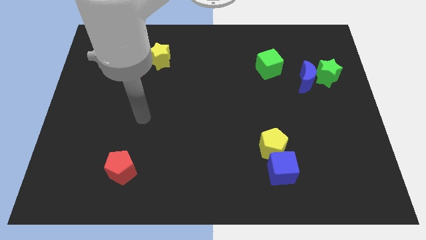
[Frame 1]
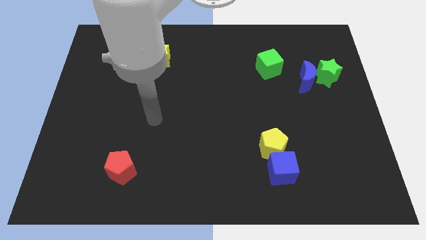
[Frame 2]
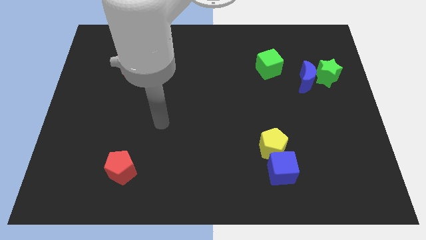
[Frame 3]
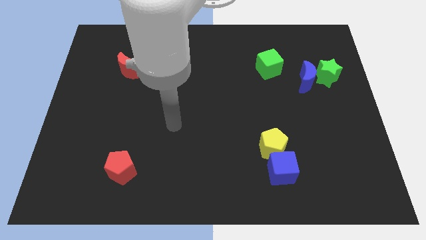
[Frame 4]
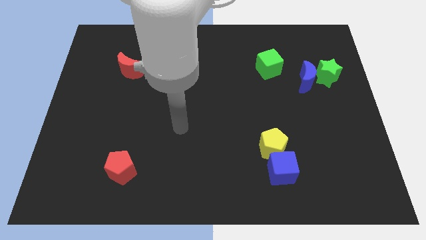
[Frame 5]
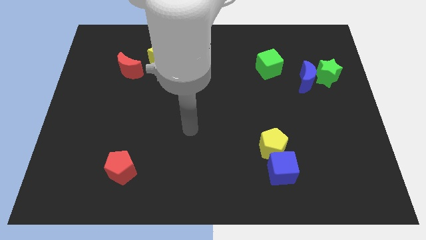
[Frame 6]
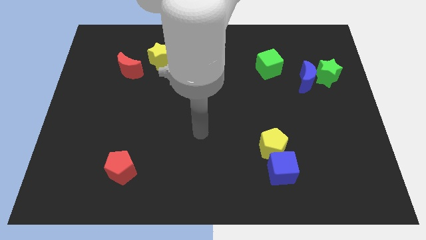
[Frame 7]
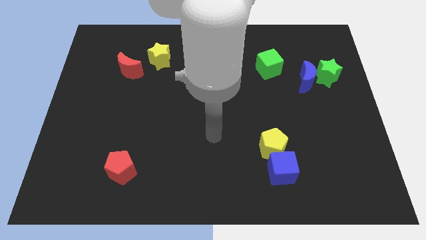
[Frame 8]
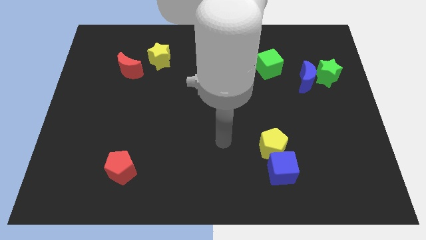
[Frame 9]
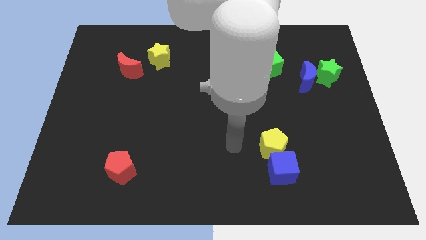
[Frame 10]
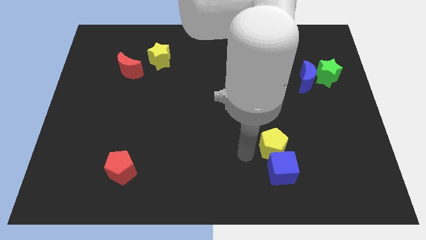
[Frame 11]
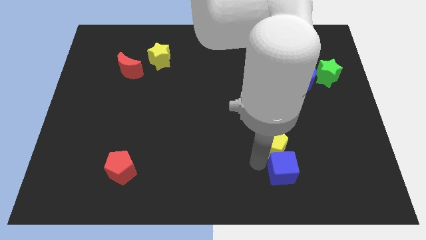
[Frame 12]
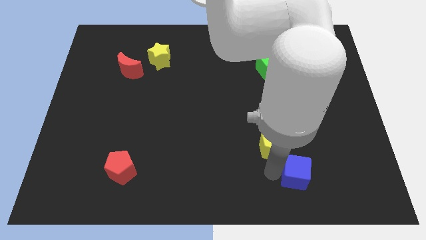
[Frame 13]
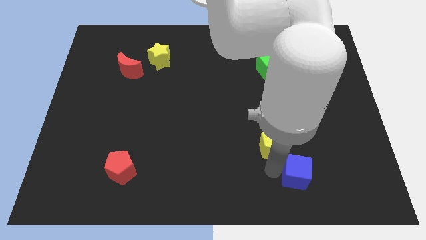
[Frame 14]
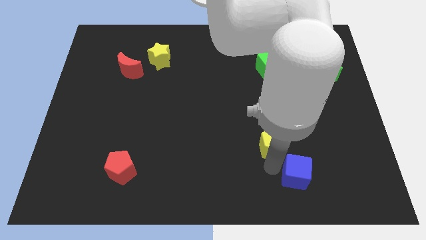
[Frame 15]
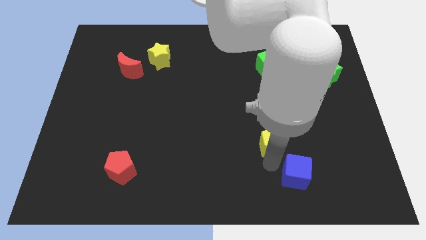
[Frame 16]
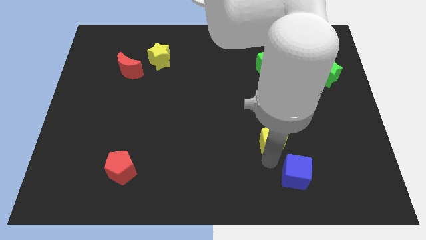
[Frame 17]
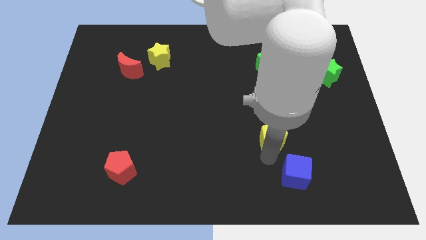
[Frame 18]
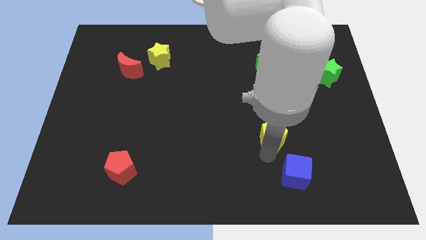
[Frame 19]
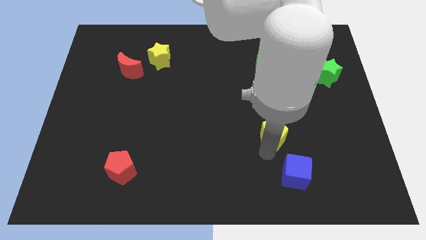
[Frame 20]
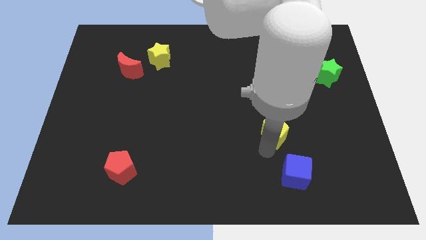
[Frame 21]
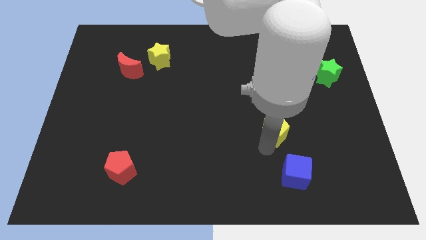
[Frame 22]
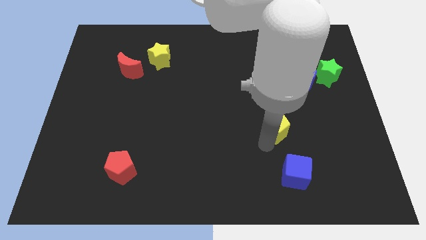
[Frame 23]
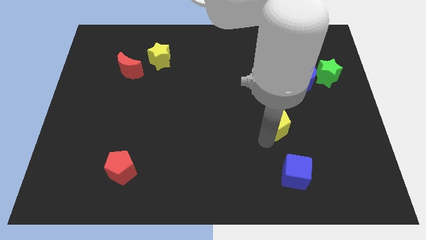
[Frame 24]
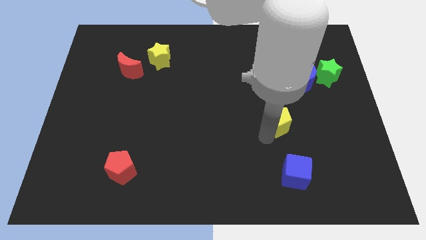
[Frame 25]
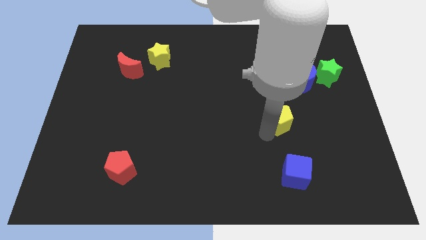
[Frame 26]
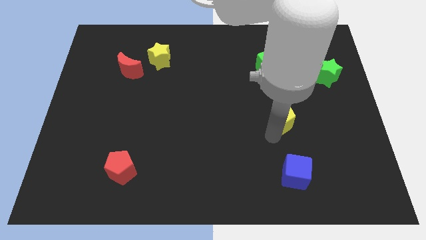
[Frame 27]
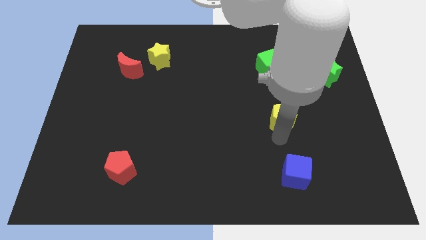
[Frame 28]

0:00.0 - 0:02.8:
slightly move the yellow pentagon upwards

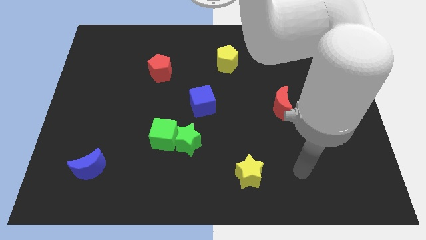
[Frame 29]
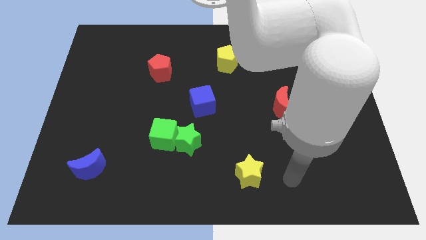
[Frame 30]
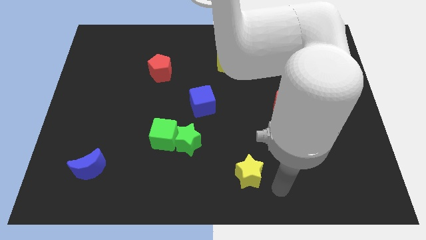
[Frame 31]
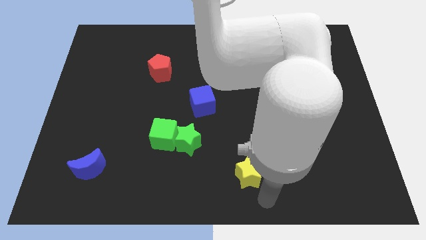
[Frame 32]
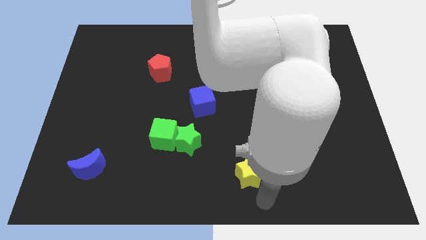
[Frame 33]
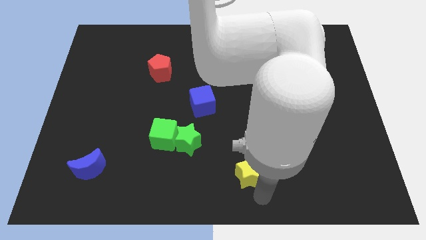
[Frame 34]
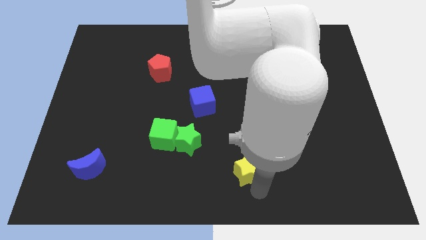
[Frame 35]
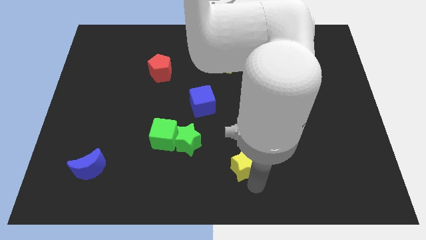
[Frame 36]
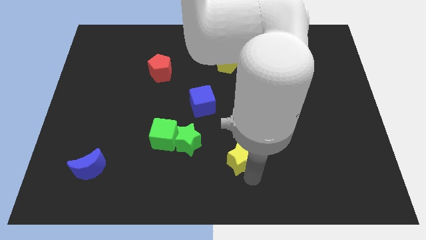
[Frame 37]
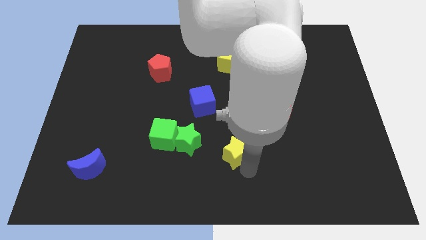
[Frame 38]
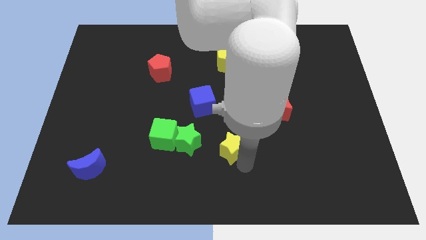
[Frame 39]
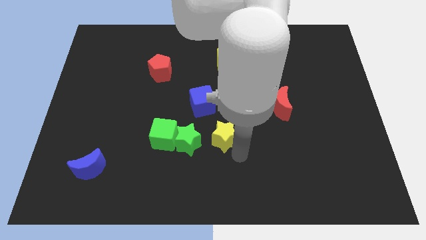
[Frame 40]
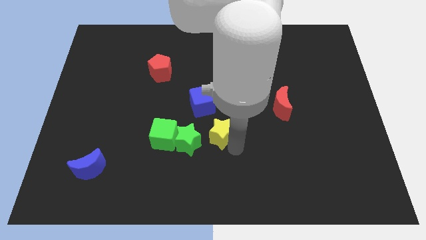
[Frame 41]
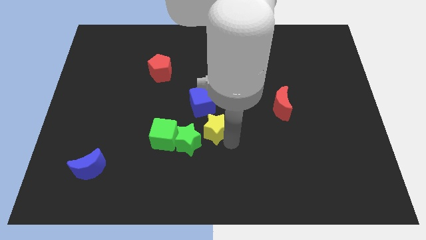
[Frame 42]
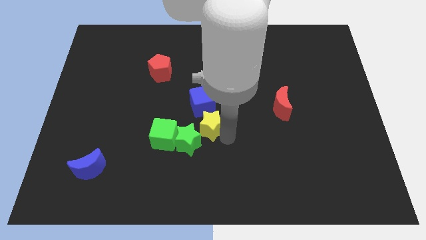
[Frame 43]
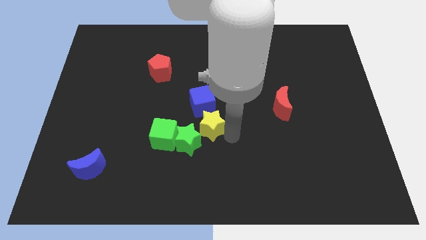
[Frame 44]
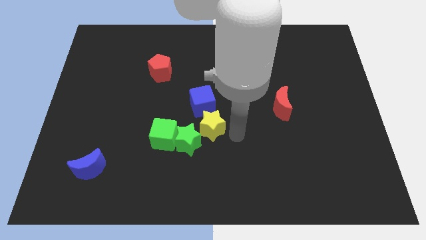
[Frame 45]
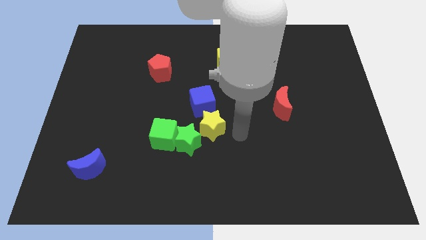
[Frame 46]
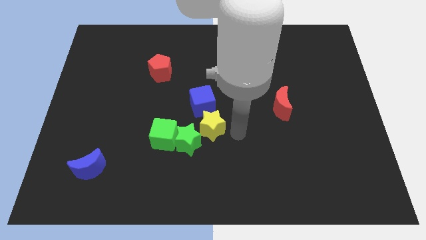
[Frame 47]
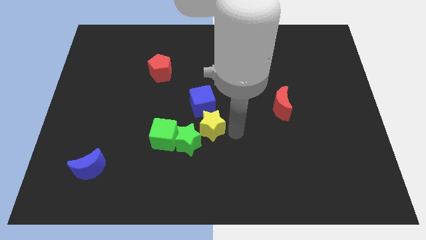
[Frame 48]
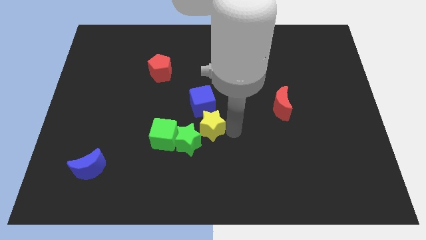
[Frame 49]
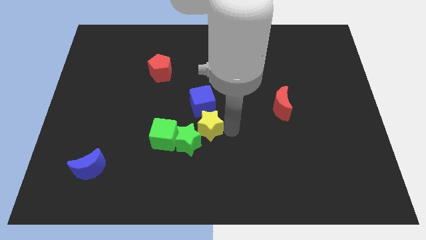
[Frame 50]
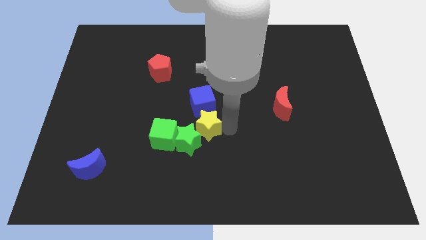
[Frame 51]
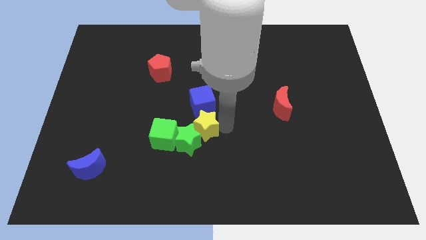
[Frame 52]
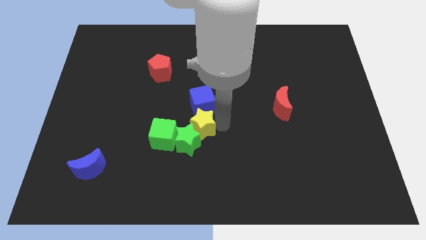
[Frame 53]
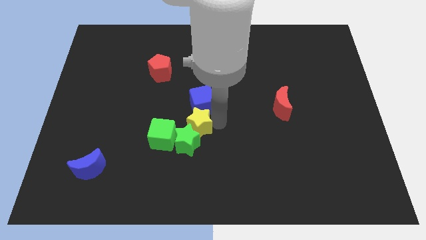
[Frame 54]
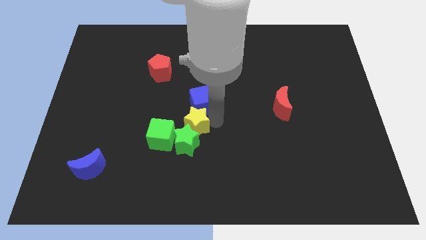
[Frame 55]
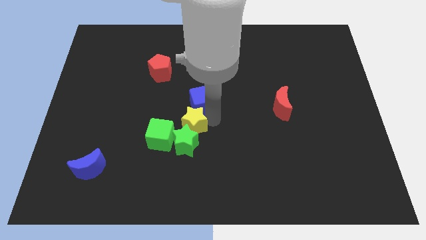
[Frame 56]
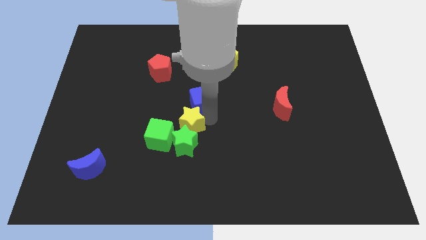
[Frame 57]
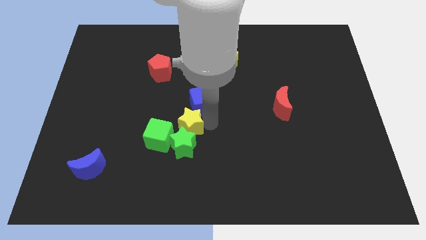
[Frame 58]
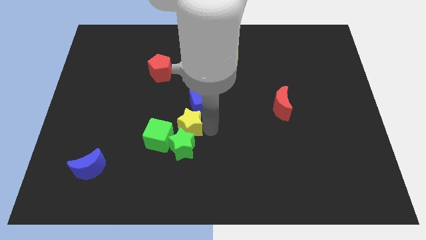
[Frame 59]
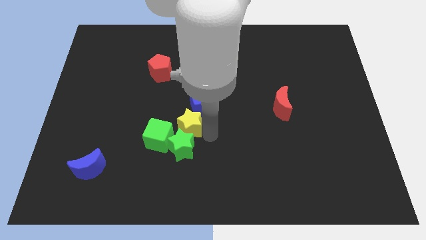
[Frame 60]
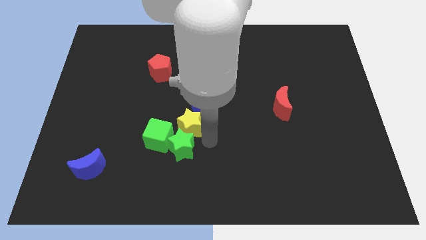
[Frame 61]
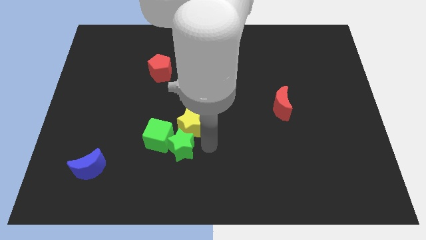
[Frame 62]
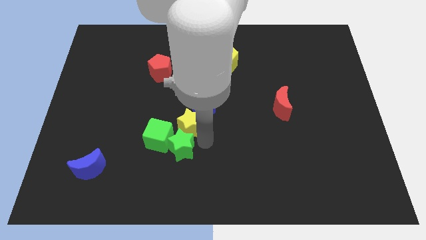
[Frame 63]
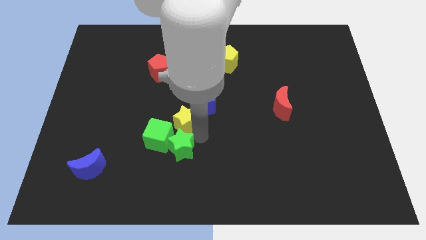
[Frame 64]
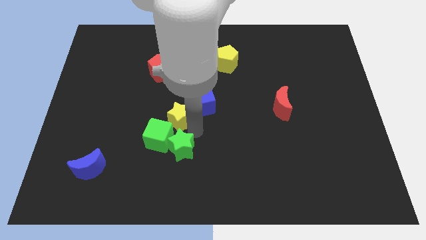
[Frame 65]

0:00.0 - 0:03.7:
move the yellow star upwards and to the left

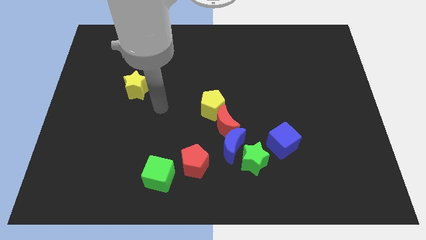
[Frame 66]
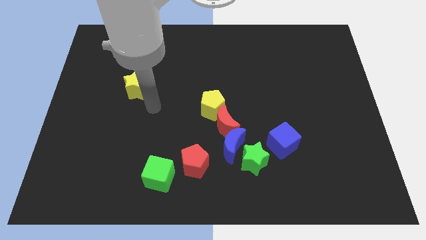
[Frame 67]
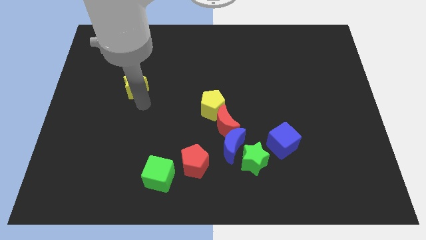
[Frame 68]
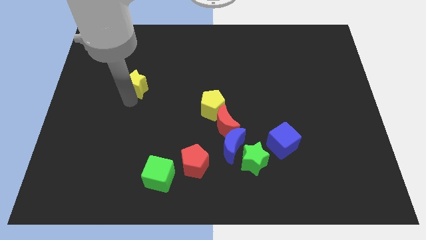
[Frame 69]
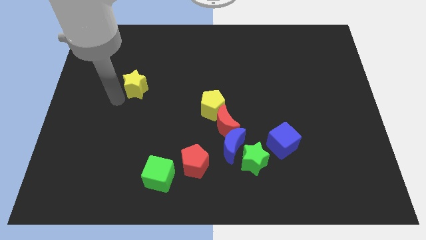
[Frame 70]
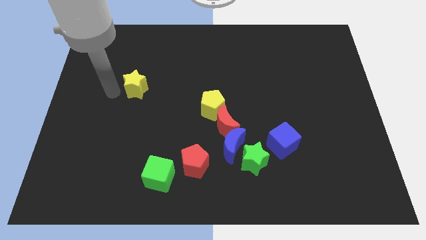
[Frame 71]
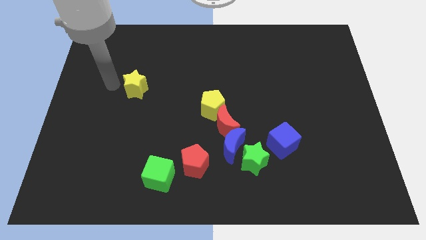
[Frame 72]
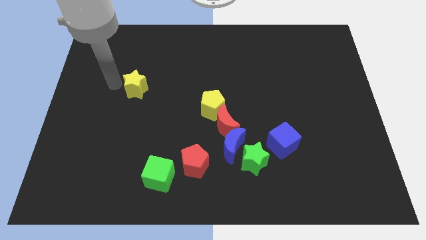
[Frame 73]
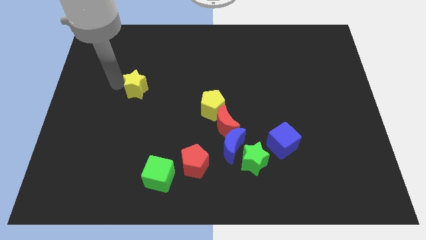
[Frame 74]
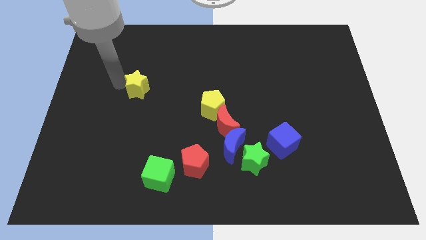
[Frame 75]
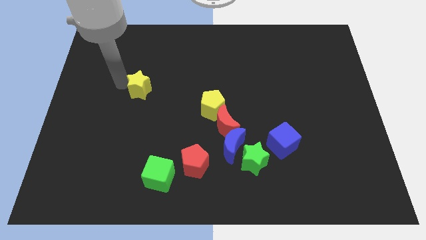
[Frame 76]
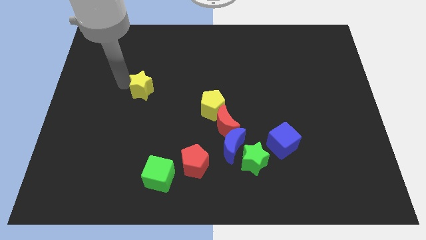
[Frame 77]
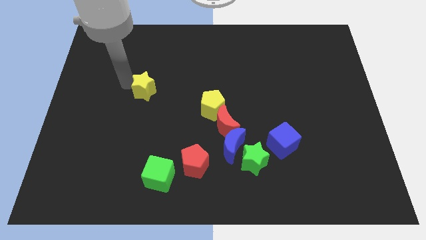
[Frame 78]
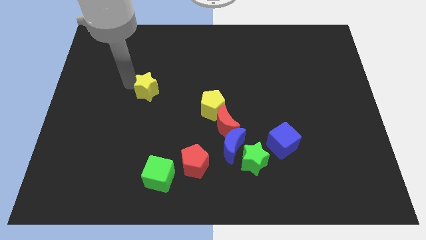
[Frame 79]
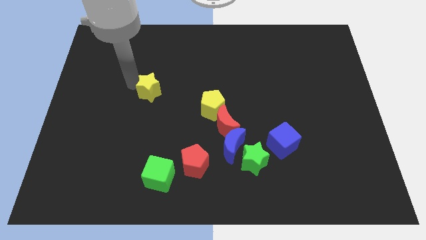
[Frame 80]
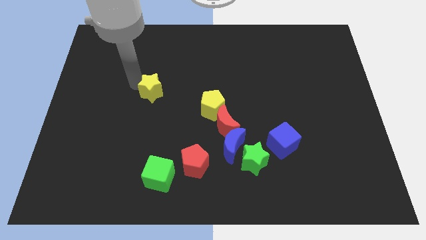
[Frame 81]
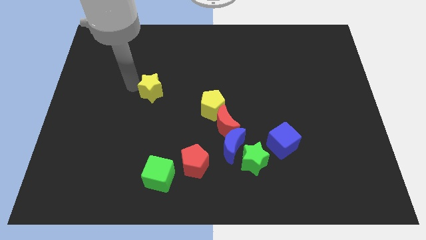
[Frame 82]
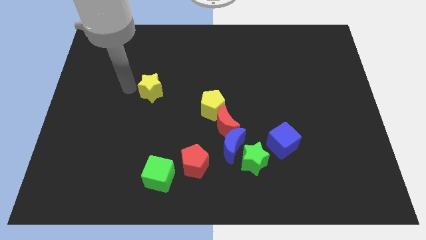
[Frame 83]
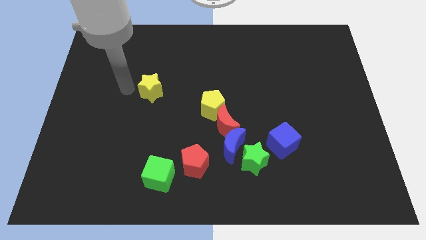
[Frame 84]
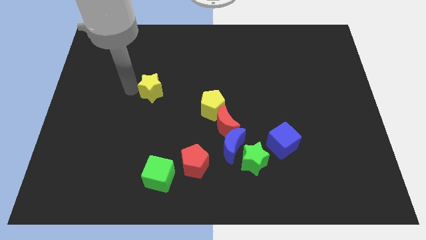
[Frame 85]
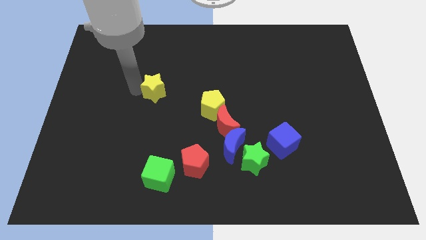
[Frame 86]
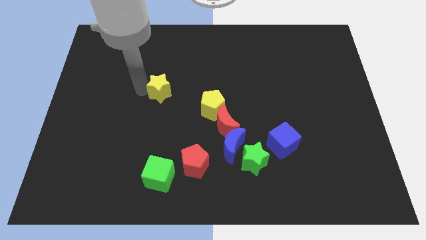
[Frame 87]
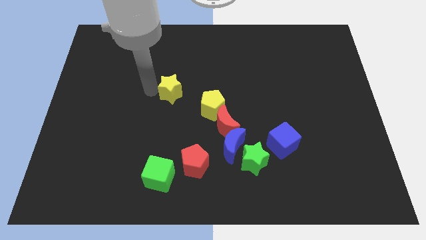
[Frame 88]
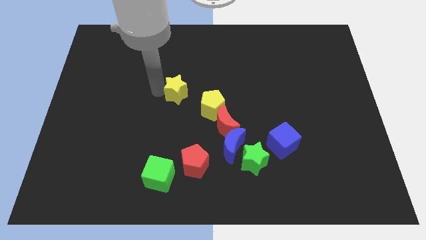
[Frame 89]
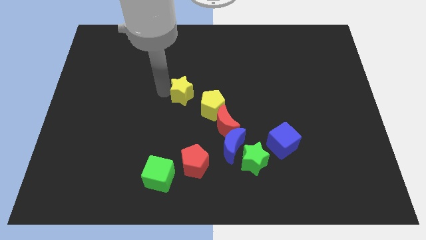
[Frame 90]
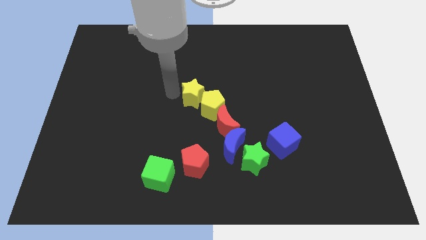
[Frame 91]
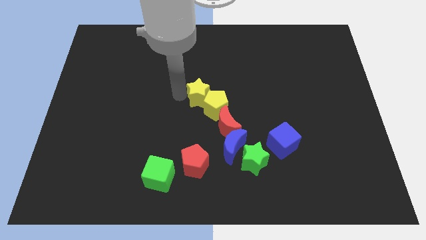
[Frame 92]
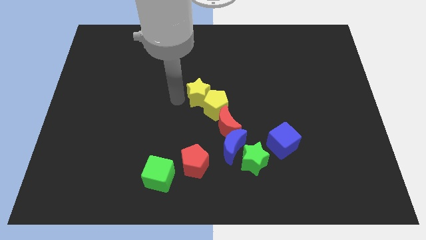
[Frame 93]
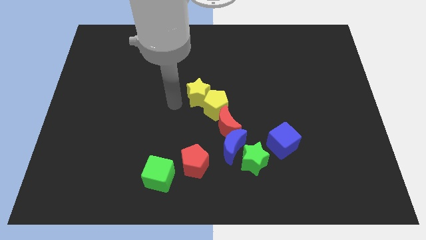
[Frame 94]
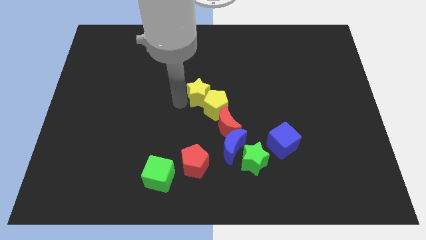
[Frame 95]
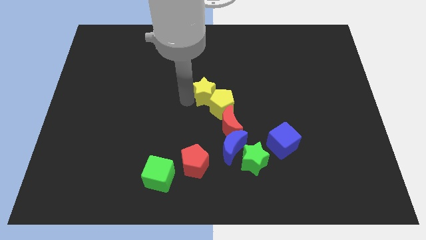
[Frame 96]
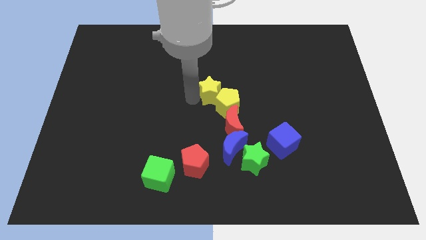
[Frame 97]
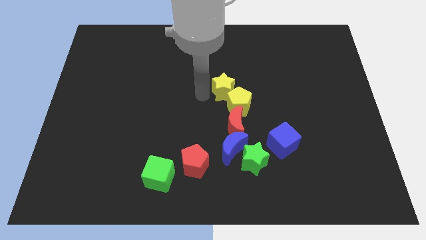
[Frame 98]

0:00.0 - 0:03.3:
slide the yellow star right
